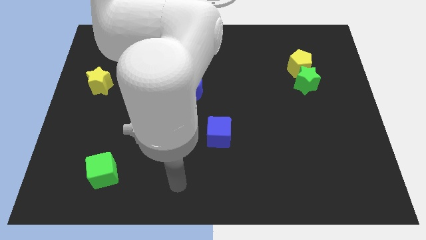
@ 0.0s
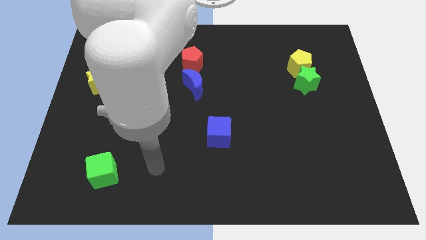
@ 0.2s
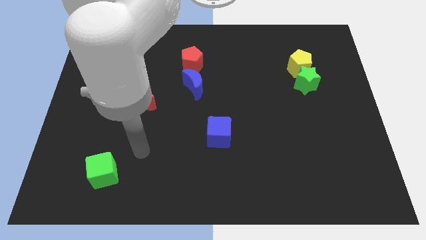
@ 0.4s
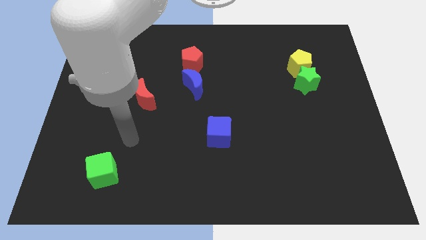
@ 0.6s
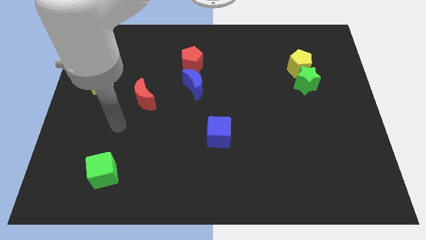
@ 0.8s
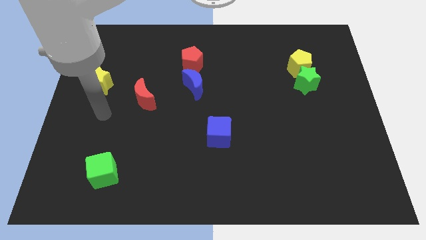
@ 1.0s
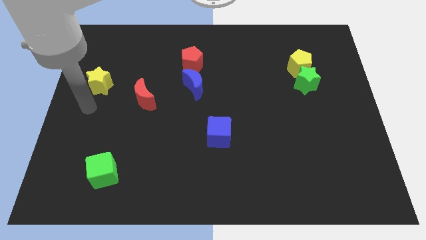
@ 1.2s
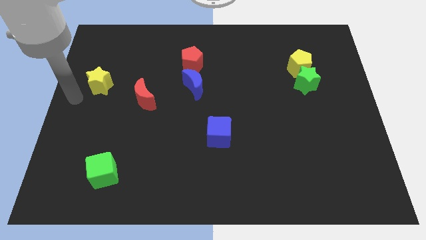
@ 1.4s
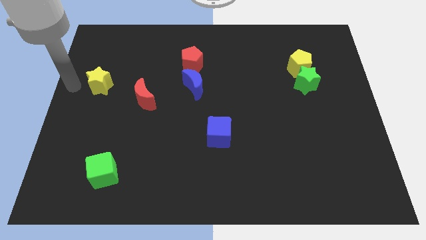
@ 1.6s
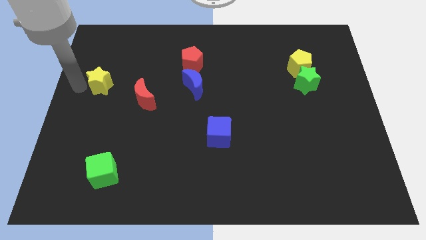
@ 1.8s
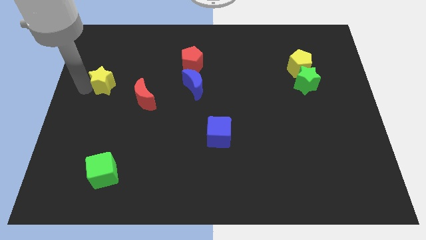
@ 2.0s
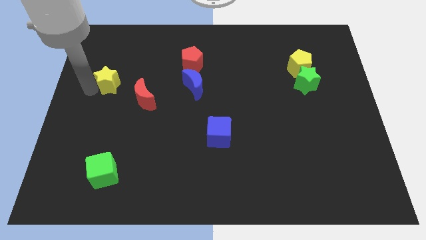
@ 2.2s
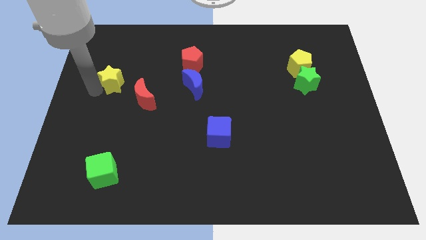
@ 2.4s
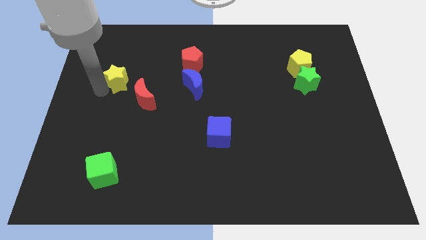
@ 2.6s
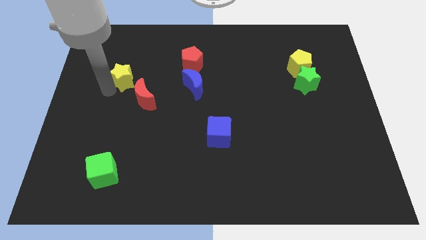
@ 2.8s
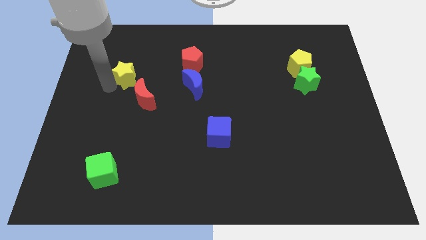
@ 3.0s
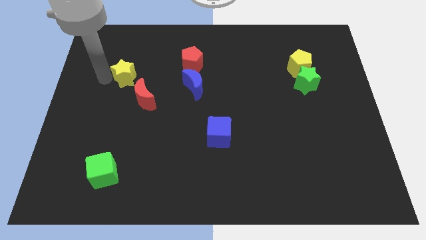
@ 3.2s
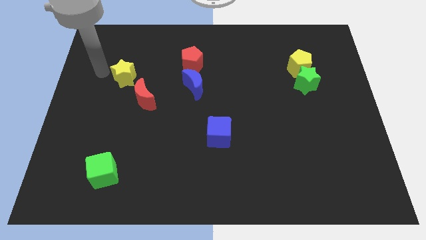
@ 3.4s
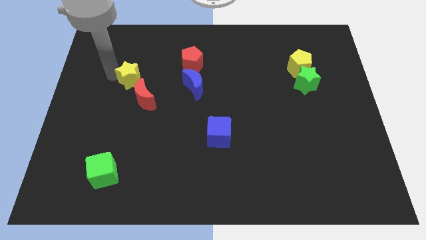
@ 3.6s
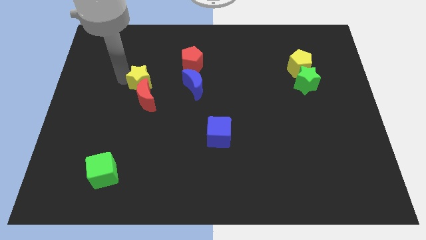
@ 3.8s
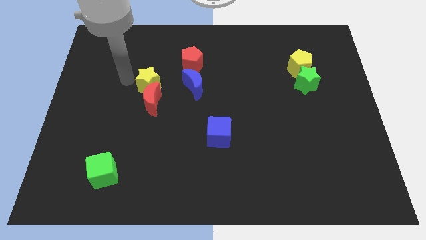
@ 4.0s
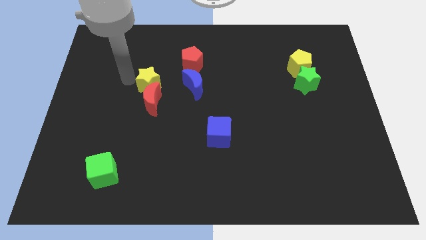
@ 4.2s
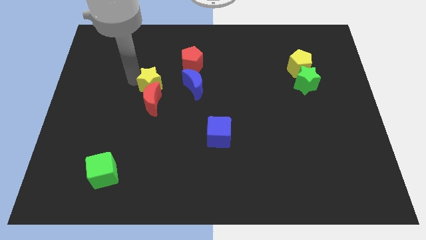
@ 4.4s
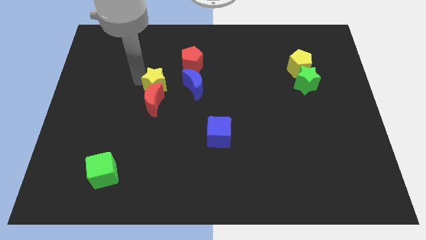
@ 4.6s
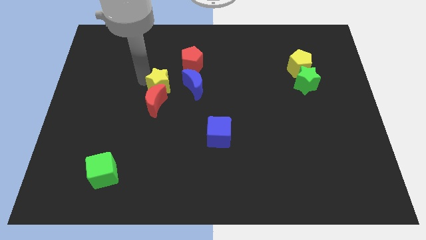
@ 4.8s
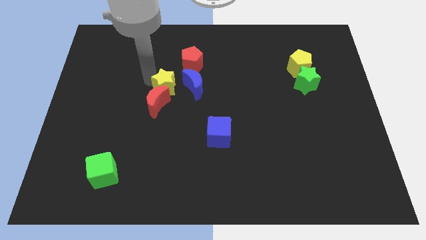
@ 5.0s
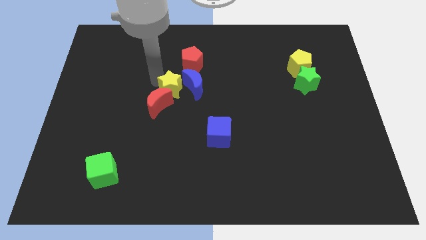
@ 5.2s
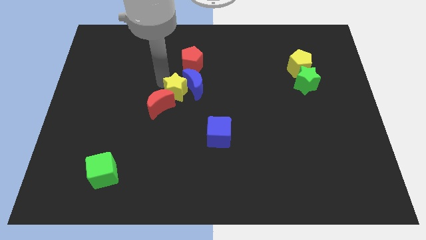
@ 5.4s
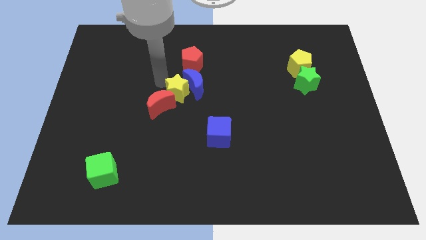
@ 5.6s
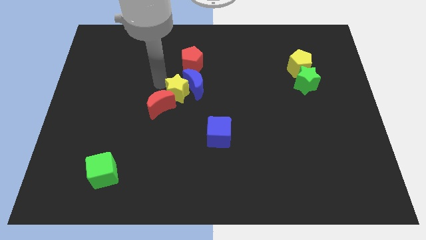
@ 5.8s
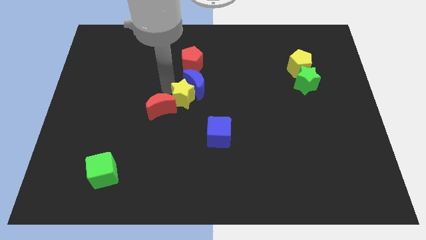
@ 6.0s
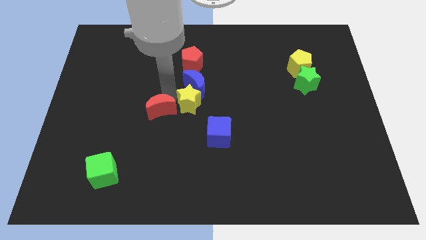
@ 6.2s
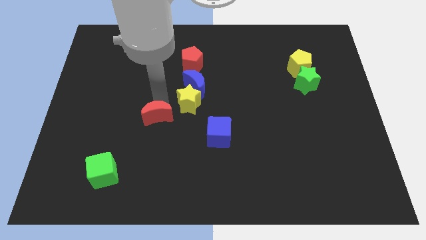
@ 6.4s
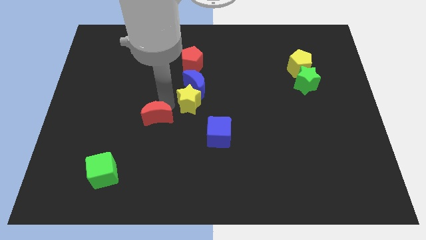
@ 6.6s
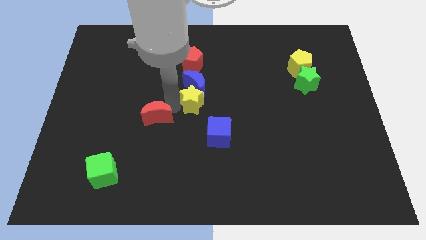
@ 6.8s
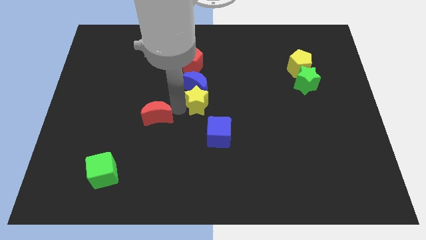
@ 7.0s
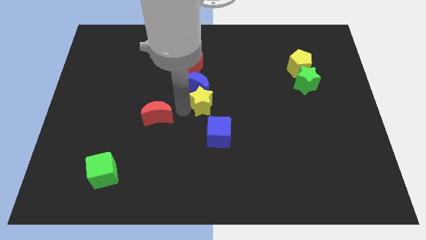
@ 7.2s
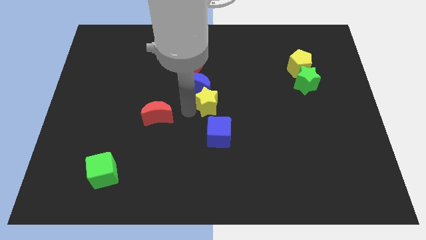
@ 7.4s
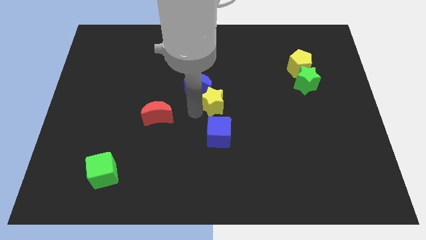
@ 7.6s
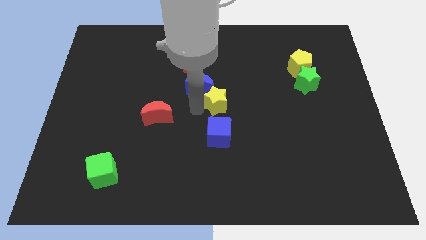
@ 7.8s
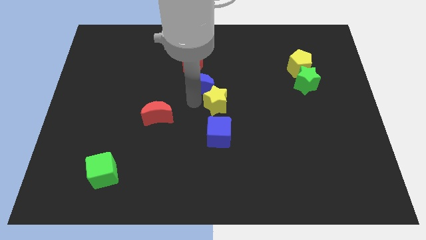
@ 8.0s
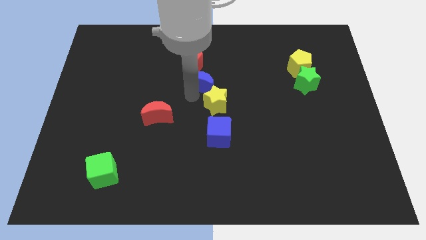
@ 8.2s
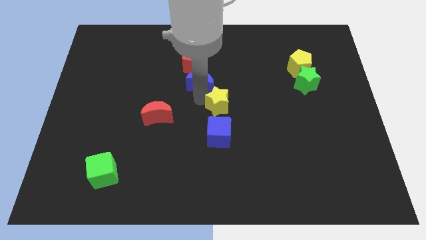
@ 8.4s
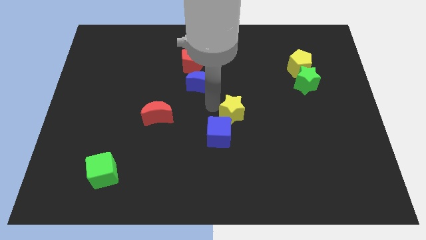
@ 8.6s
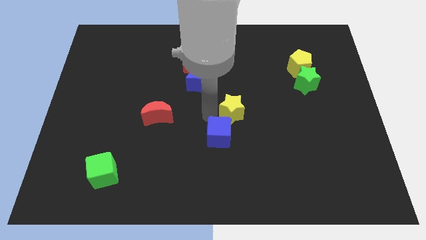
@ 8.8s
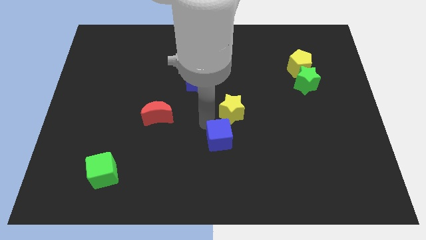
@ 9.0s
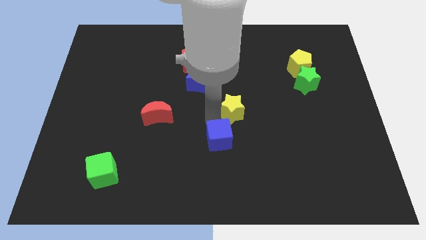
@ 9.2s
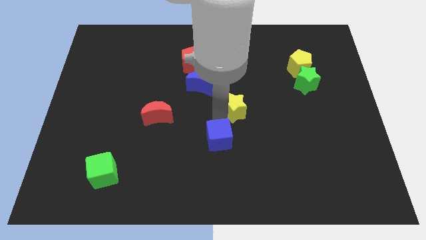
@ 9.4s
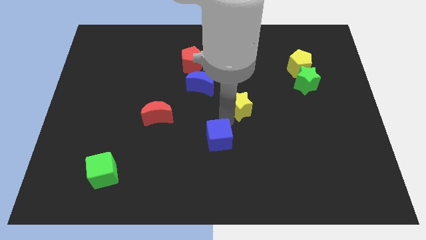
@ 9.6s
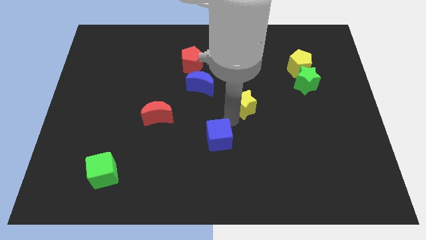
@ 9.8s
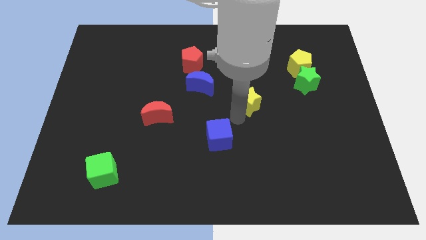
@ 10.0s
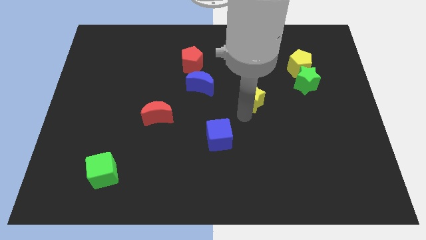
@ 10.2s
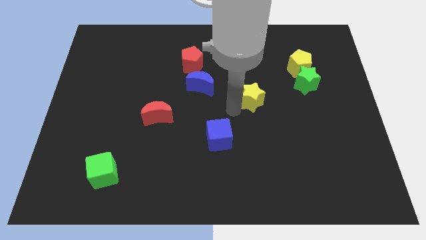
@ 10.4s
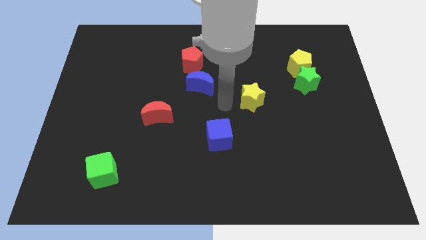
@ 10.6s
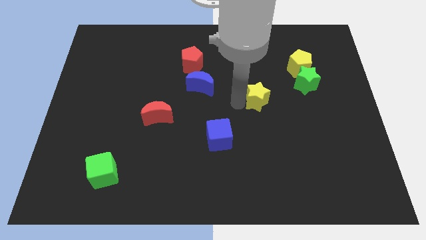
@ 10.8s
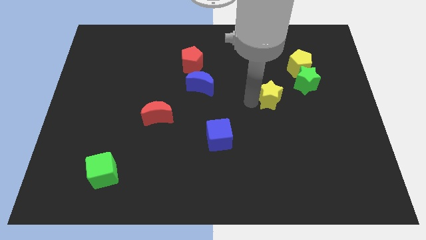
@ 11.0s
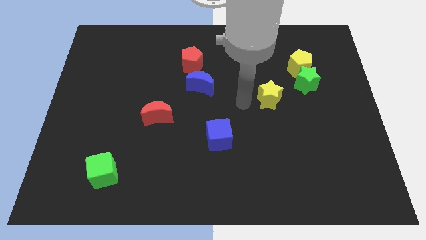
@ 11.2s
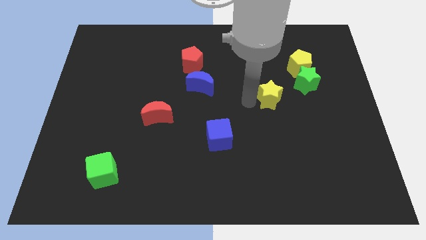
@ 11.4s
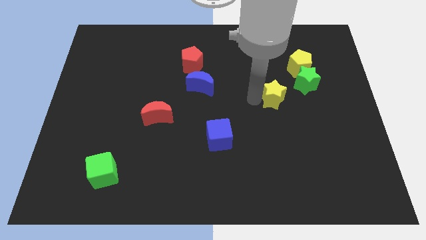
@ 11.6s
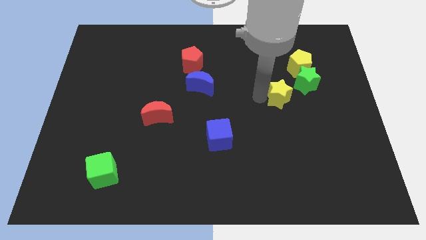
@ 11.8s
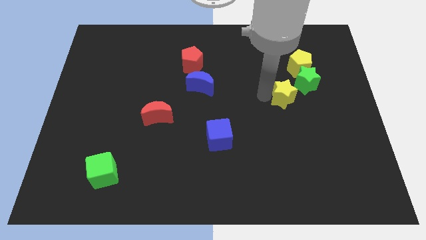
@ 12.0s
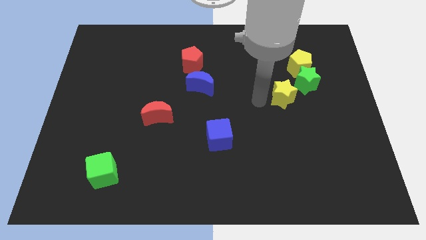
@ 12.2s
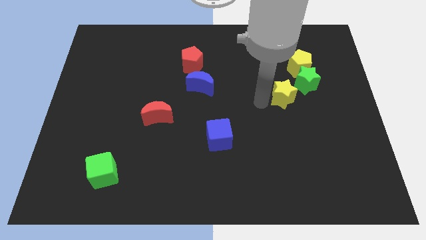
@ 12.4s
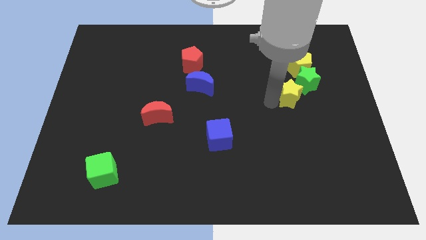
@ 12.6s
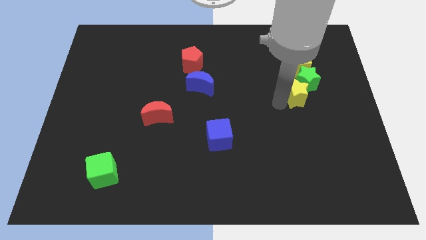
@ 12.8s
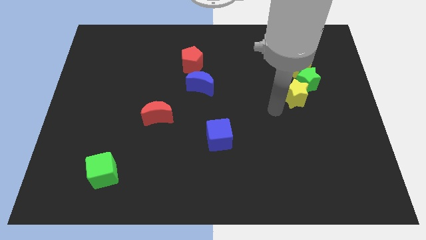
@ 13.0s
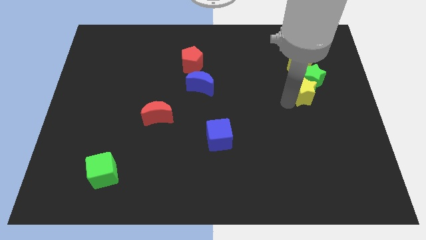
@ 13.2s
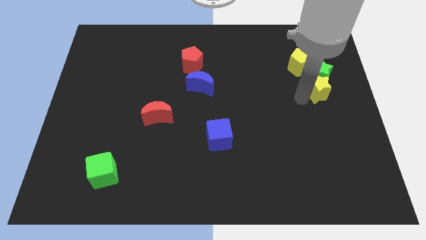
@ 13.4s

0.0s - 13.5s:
slide the yellow star to the bottom right of the yellow pentagon
